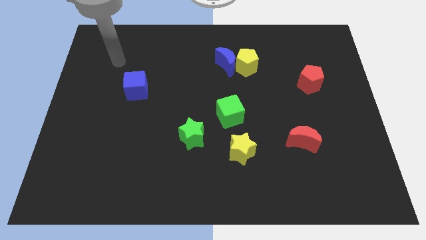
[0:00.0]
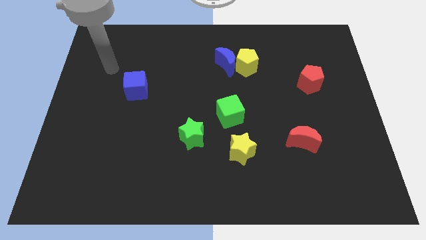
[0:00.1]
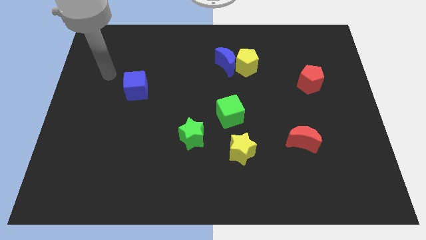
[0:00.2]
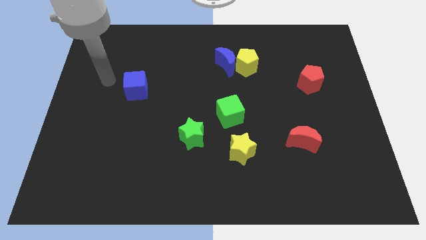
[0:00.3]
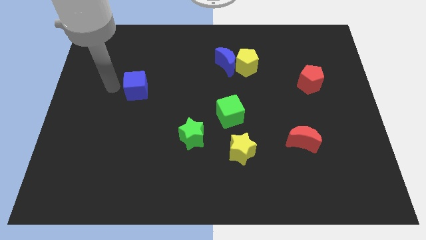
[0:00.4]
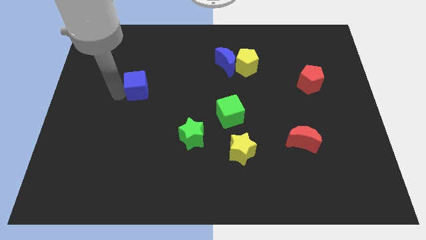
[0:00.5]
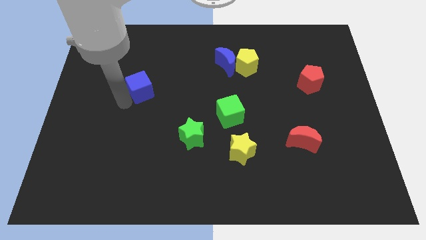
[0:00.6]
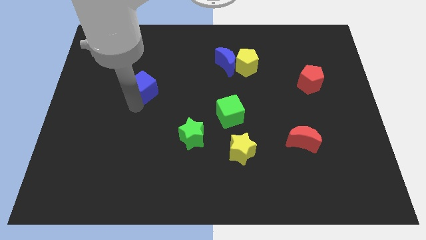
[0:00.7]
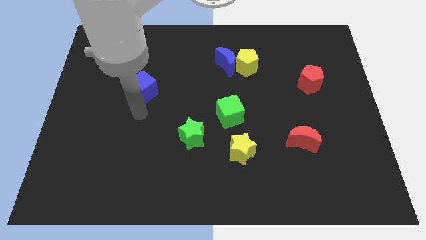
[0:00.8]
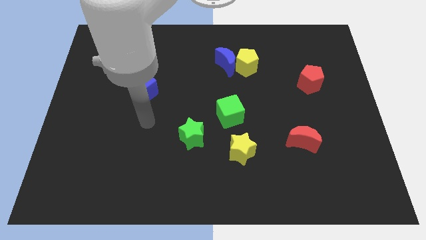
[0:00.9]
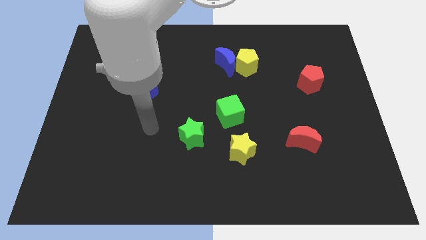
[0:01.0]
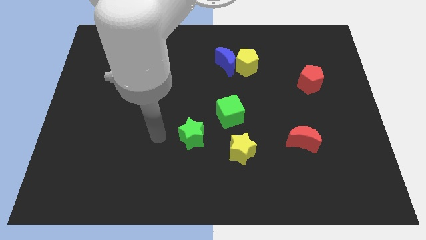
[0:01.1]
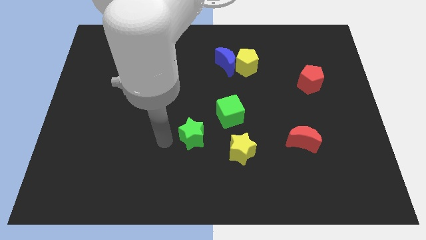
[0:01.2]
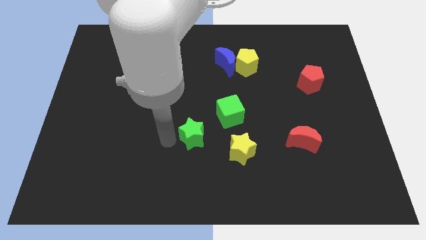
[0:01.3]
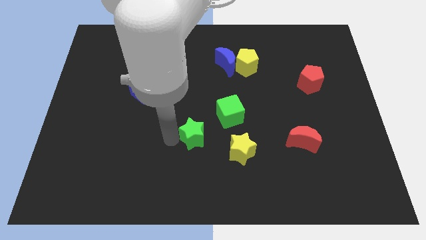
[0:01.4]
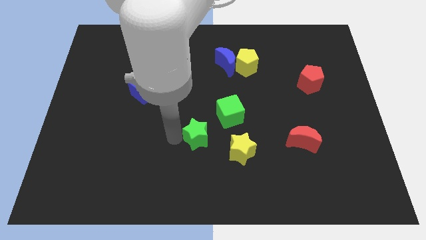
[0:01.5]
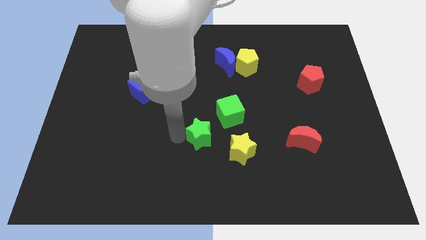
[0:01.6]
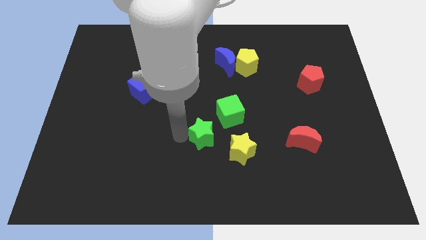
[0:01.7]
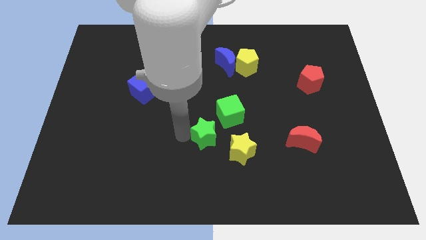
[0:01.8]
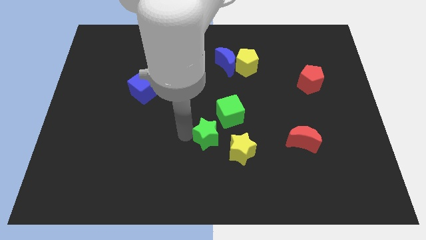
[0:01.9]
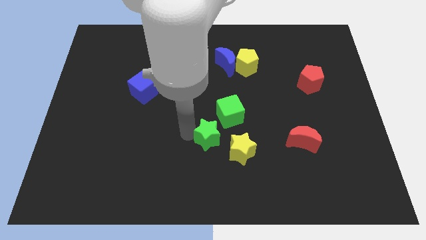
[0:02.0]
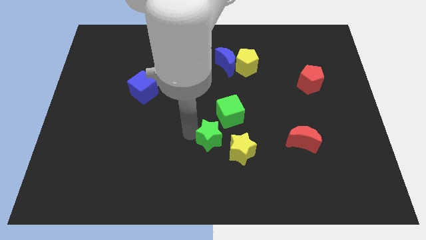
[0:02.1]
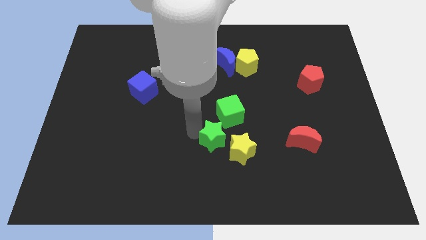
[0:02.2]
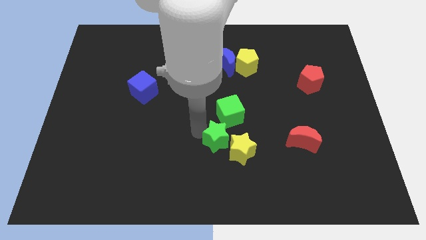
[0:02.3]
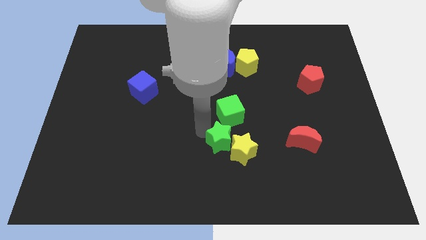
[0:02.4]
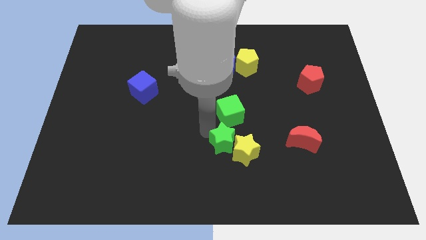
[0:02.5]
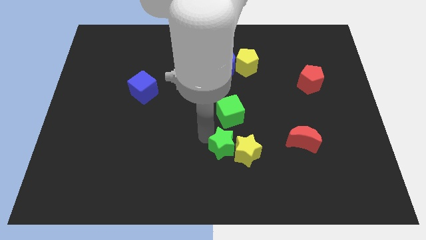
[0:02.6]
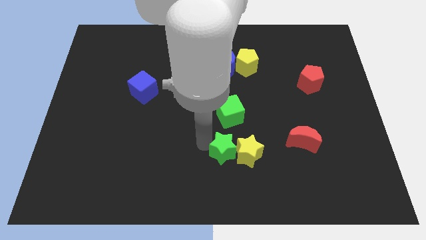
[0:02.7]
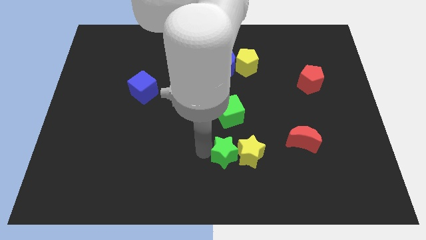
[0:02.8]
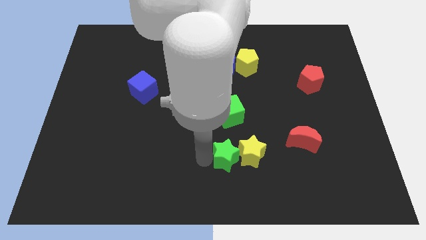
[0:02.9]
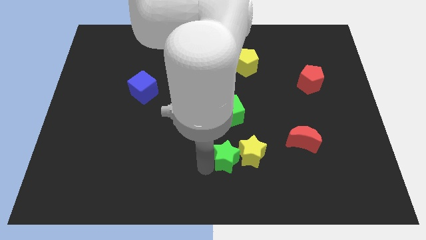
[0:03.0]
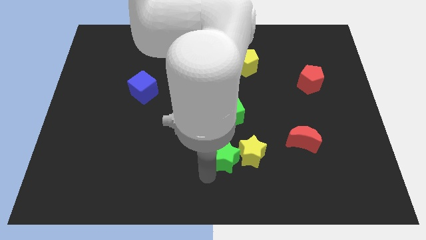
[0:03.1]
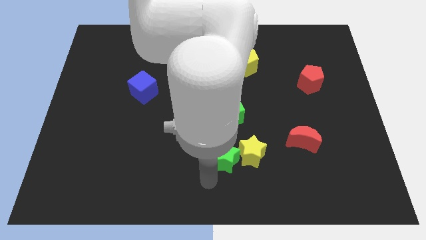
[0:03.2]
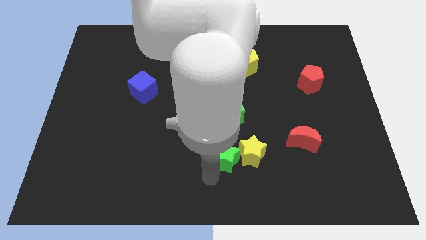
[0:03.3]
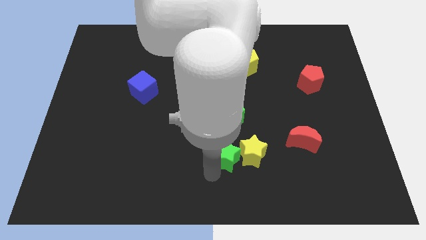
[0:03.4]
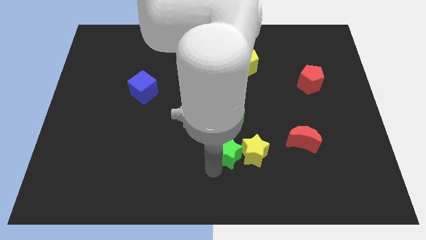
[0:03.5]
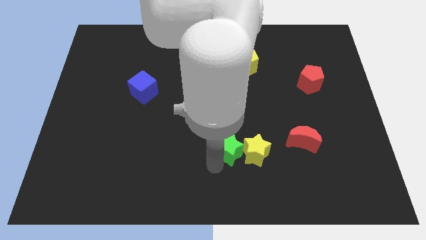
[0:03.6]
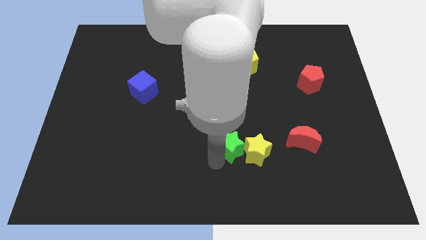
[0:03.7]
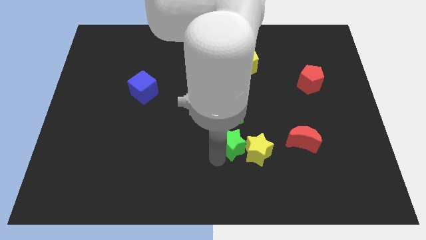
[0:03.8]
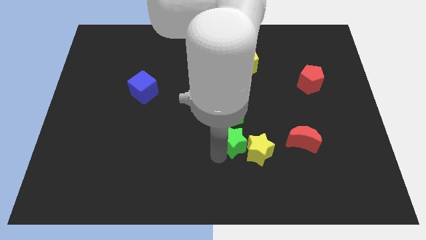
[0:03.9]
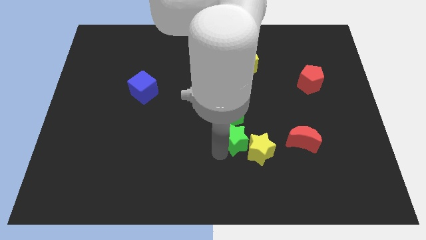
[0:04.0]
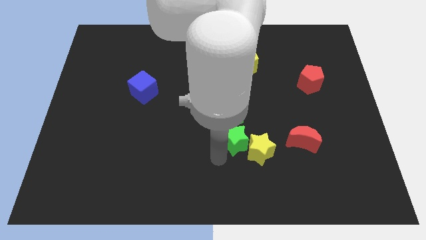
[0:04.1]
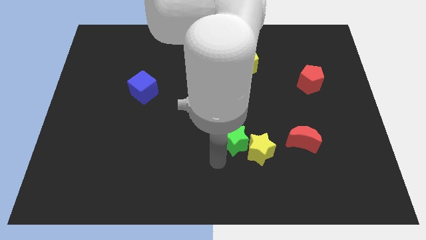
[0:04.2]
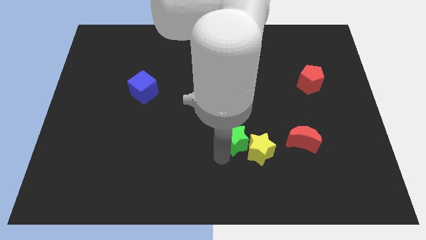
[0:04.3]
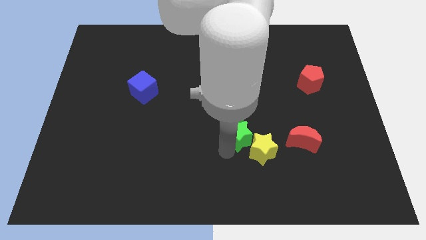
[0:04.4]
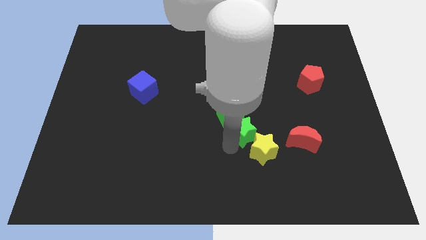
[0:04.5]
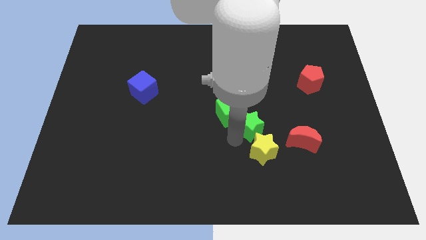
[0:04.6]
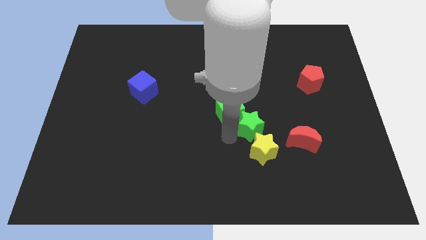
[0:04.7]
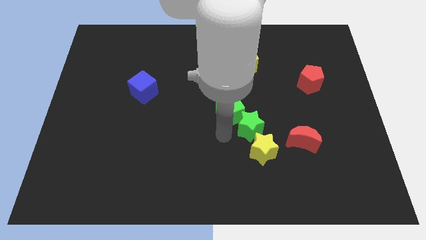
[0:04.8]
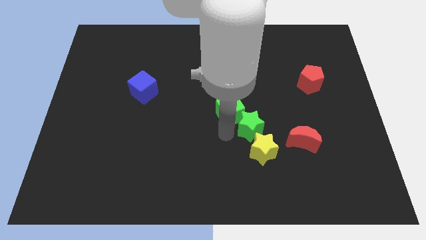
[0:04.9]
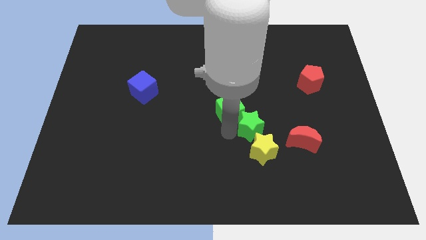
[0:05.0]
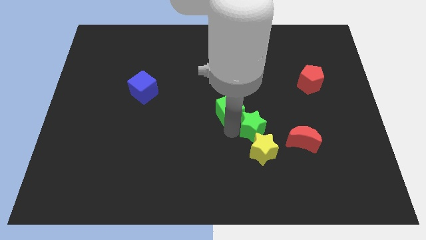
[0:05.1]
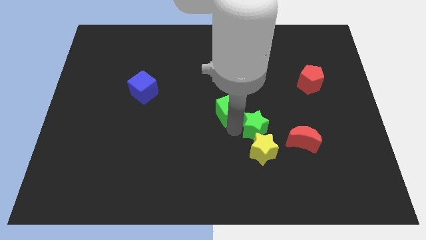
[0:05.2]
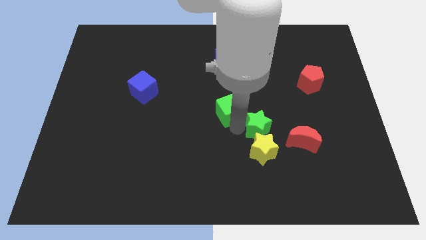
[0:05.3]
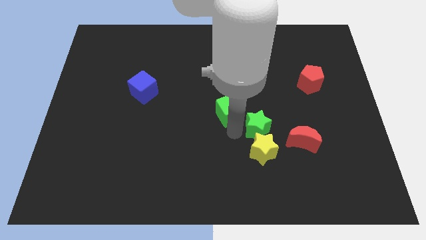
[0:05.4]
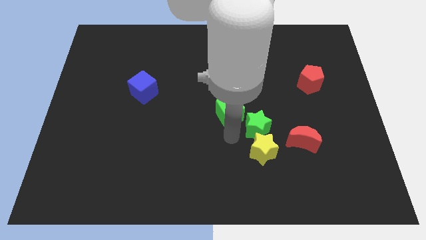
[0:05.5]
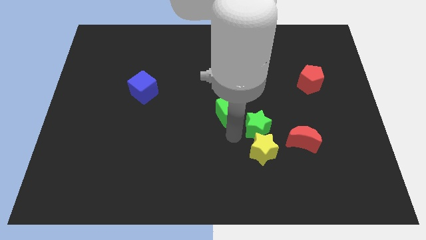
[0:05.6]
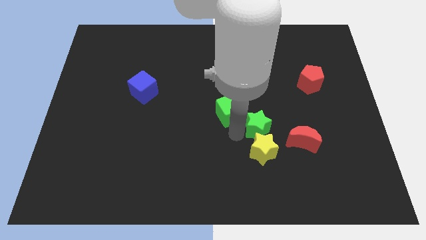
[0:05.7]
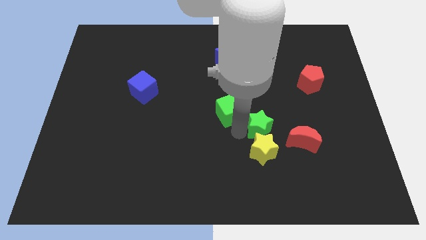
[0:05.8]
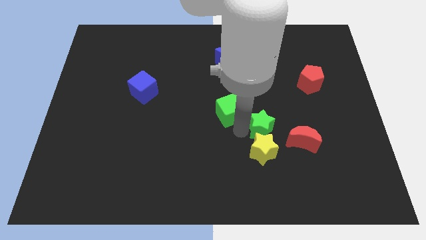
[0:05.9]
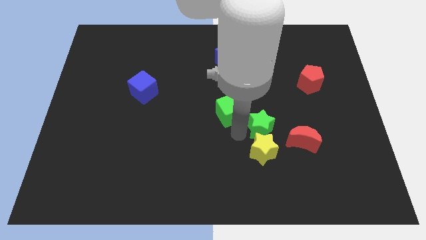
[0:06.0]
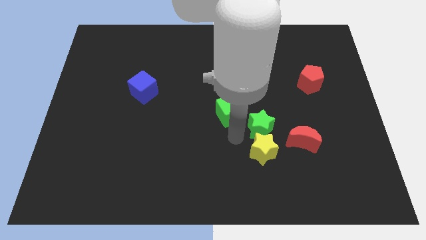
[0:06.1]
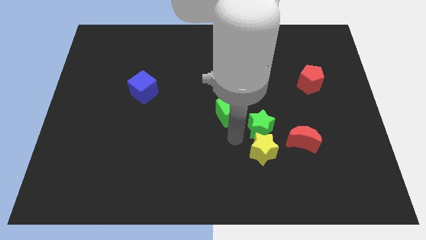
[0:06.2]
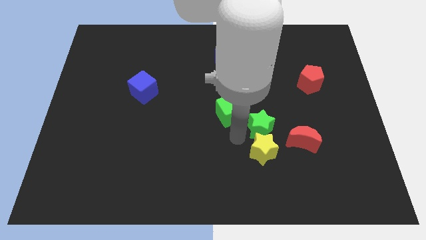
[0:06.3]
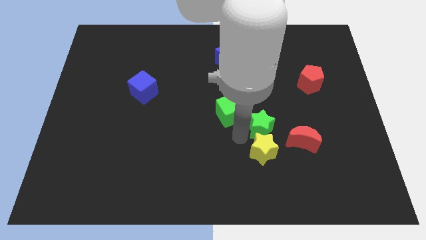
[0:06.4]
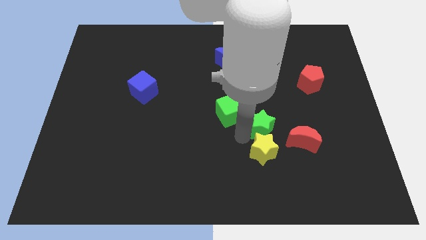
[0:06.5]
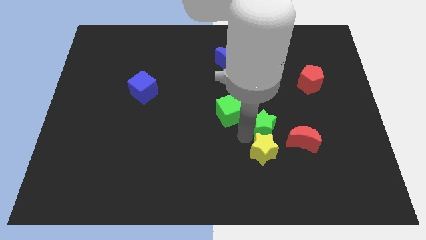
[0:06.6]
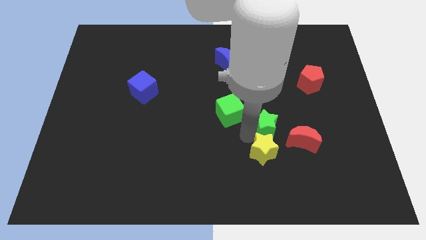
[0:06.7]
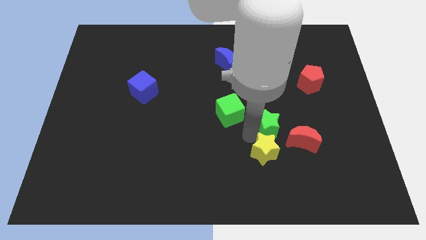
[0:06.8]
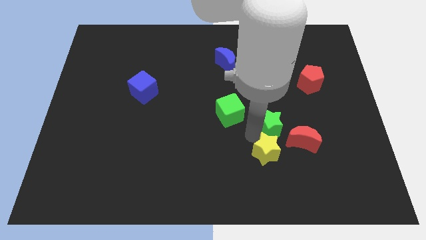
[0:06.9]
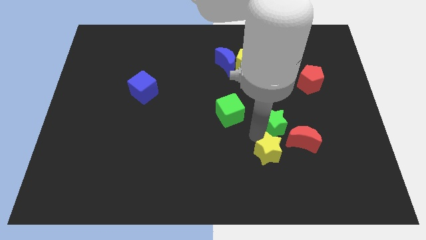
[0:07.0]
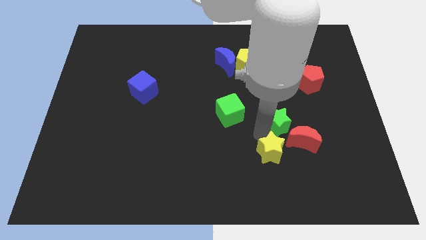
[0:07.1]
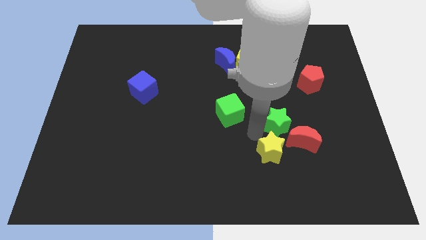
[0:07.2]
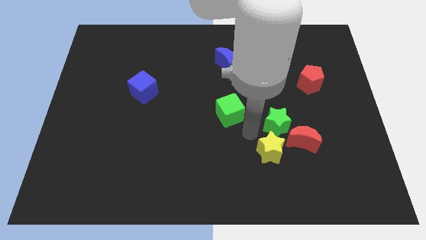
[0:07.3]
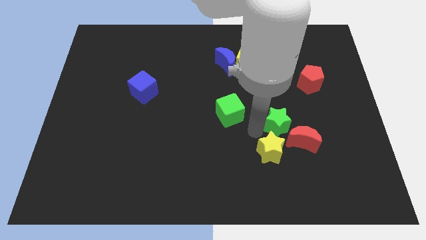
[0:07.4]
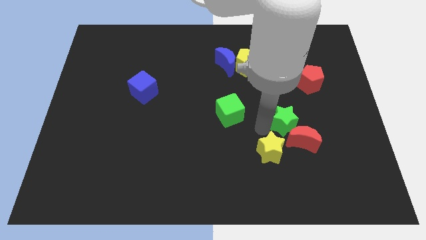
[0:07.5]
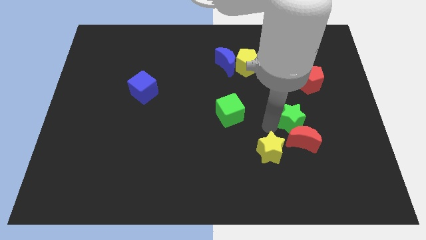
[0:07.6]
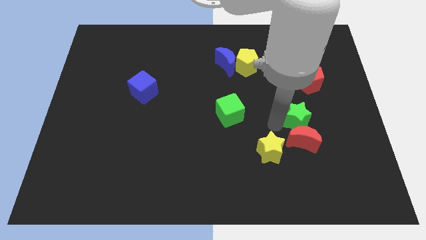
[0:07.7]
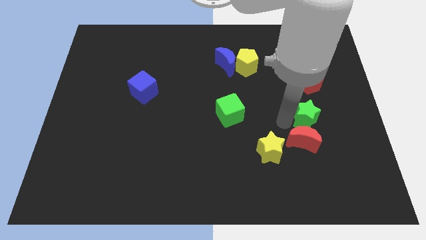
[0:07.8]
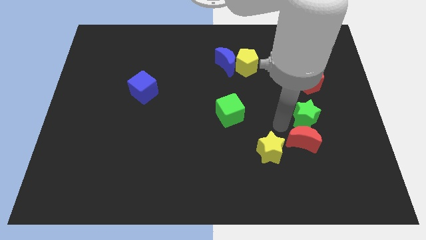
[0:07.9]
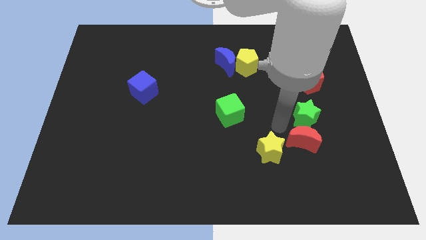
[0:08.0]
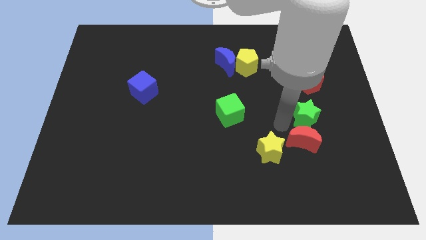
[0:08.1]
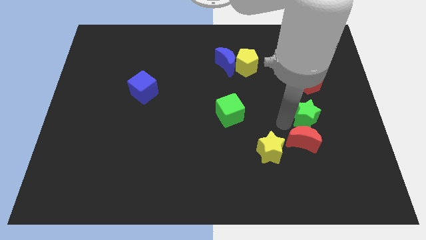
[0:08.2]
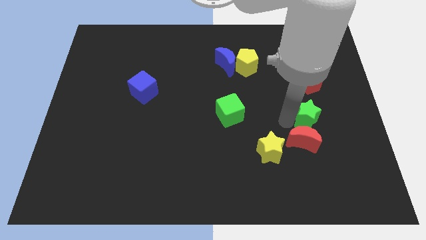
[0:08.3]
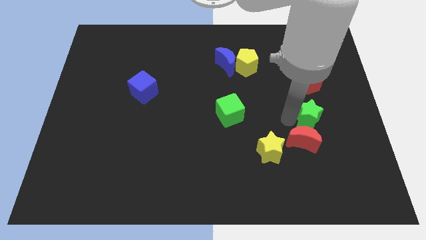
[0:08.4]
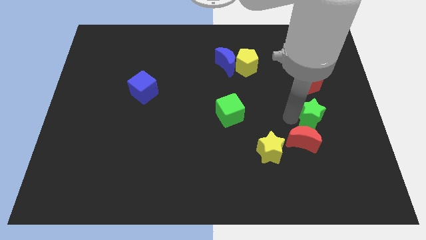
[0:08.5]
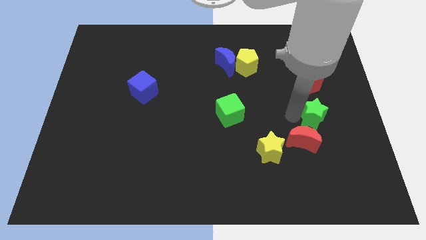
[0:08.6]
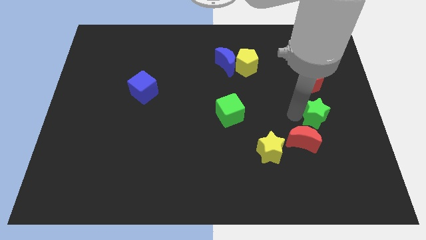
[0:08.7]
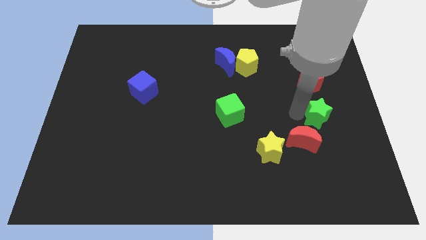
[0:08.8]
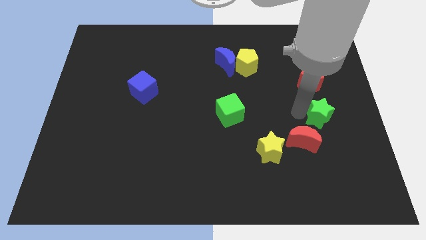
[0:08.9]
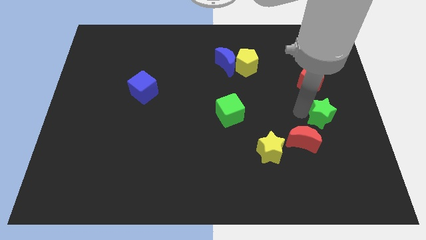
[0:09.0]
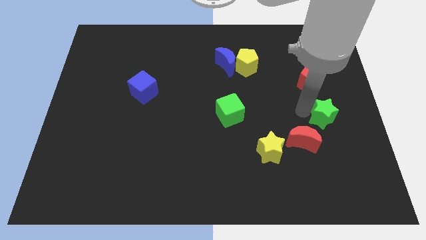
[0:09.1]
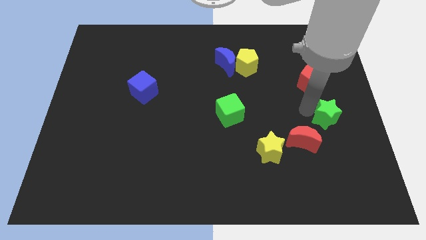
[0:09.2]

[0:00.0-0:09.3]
slide the green star to the center right
